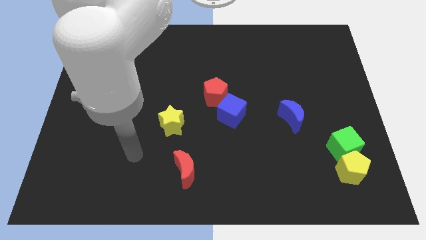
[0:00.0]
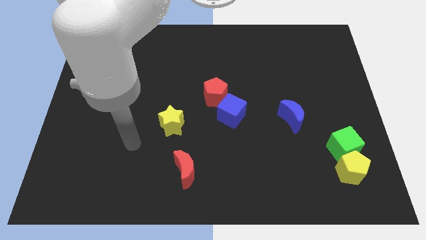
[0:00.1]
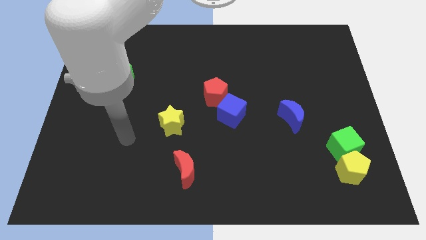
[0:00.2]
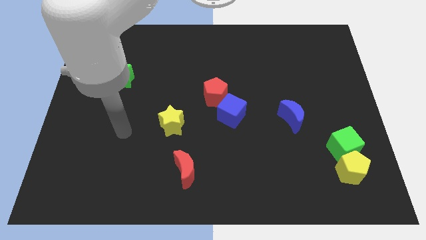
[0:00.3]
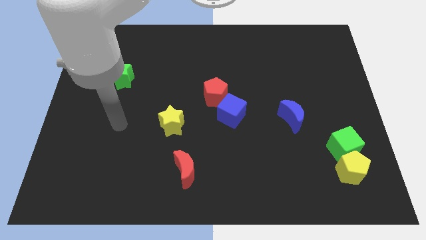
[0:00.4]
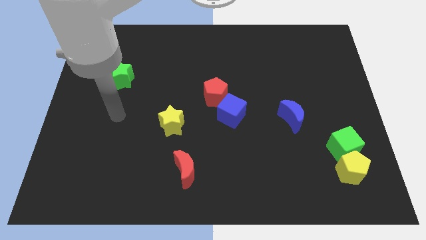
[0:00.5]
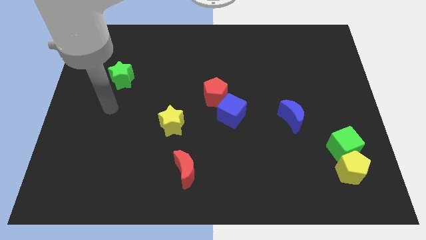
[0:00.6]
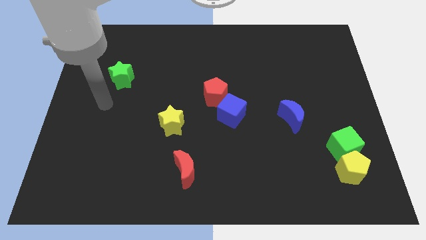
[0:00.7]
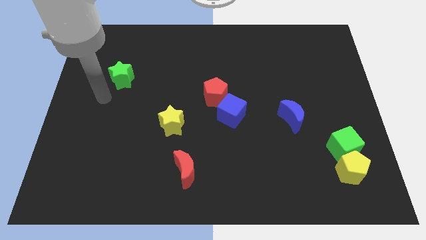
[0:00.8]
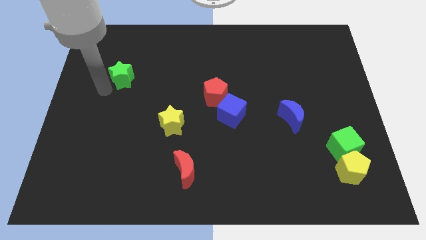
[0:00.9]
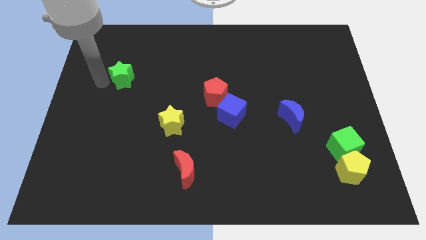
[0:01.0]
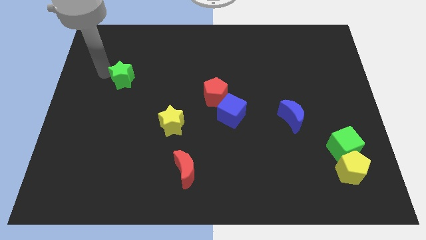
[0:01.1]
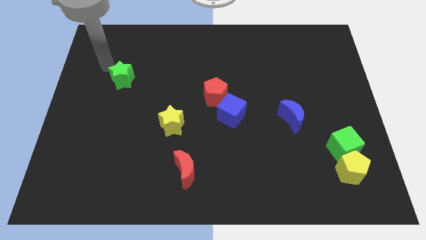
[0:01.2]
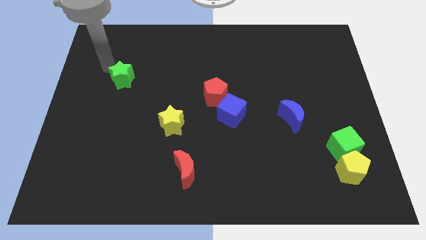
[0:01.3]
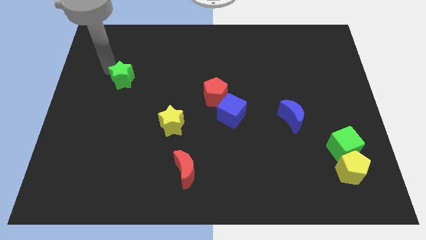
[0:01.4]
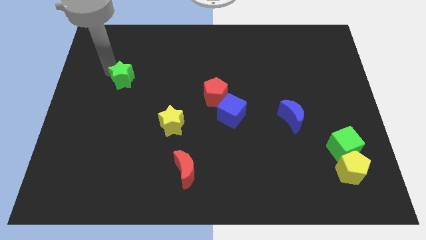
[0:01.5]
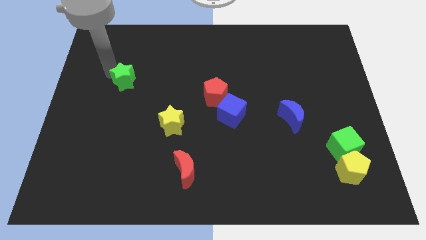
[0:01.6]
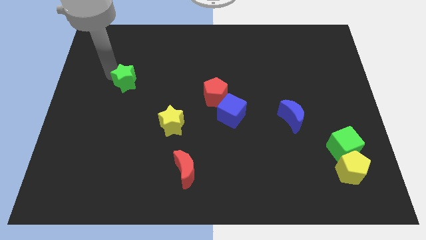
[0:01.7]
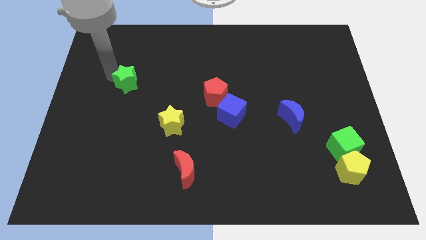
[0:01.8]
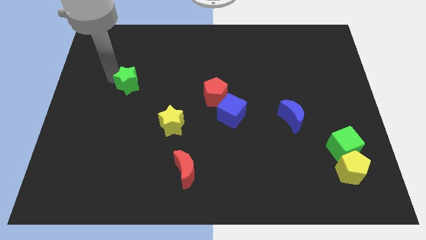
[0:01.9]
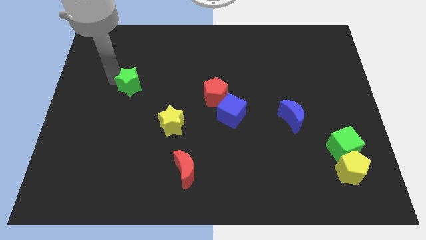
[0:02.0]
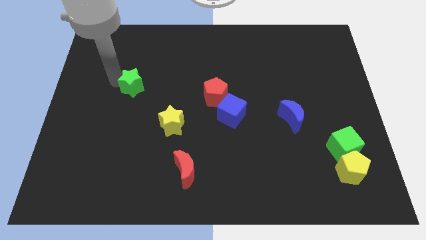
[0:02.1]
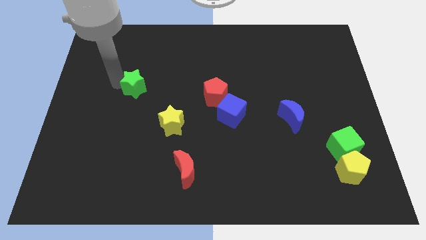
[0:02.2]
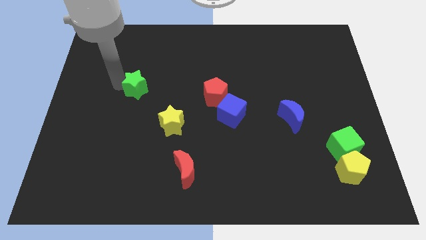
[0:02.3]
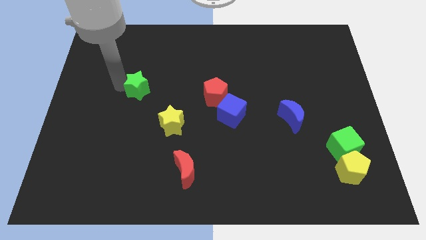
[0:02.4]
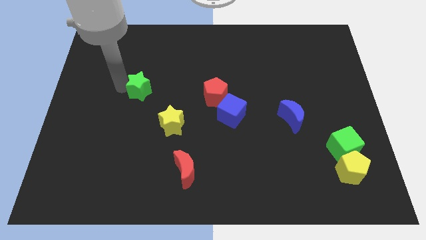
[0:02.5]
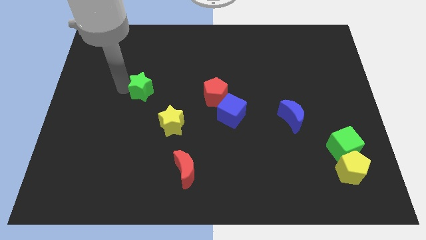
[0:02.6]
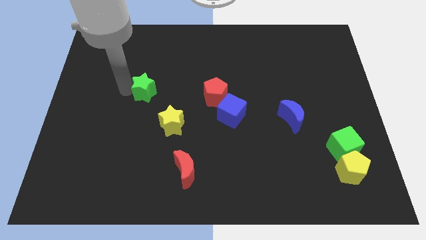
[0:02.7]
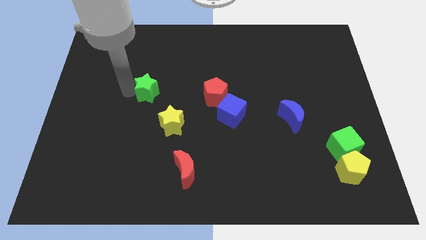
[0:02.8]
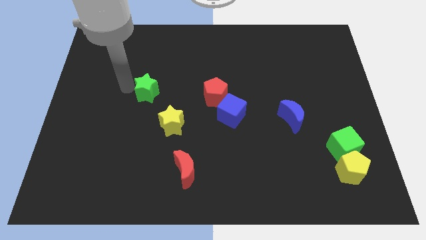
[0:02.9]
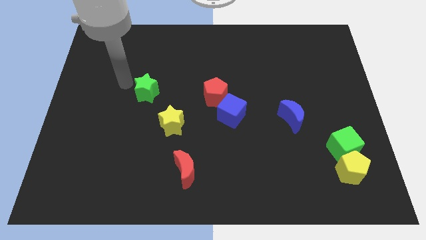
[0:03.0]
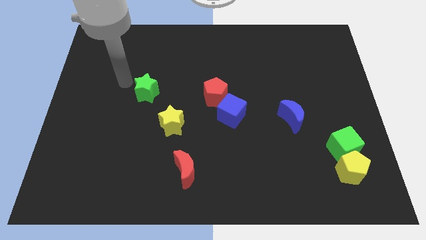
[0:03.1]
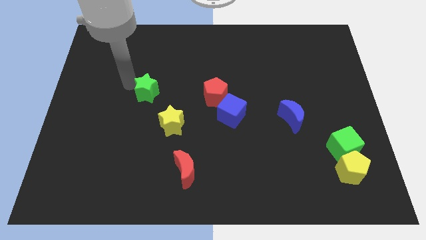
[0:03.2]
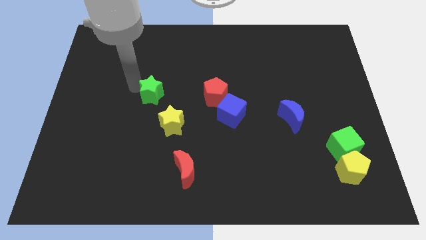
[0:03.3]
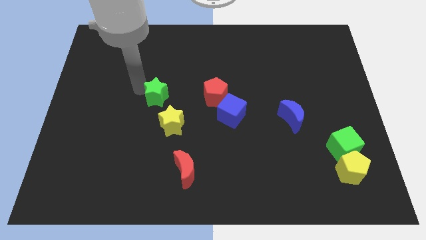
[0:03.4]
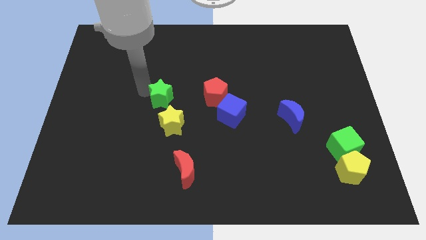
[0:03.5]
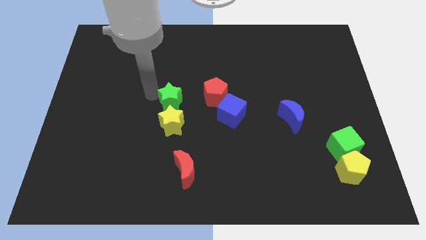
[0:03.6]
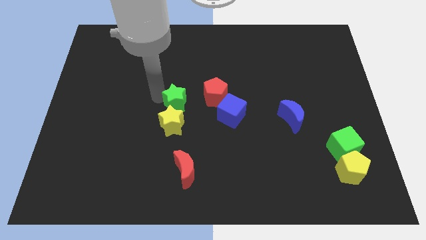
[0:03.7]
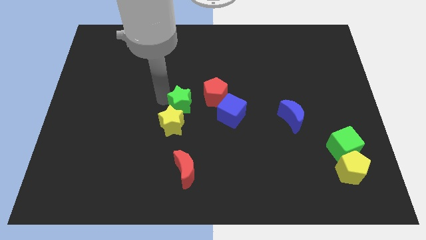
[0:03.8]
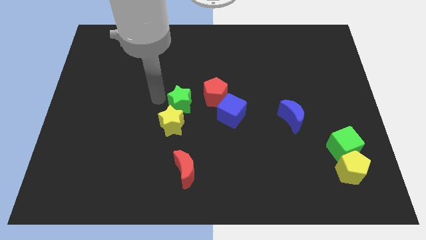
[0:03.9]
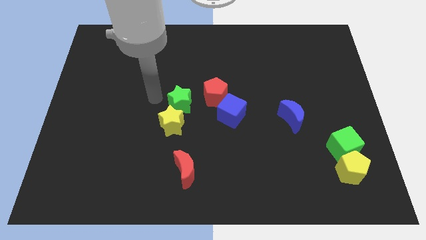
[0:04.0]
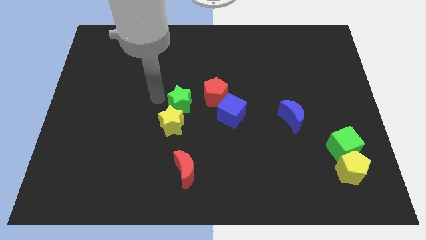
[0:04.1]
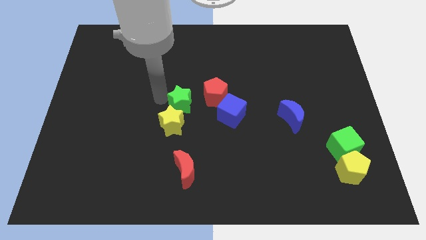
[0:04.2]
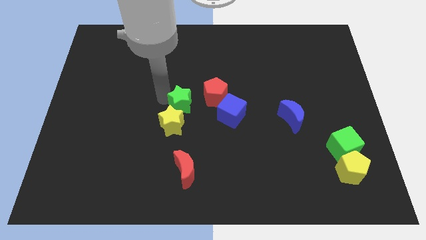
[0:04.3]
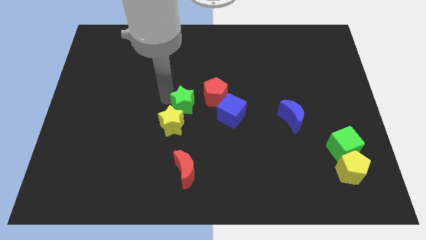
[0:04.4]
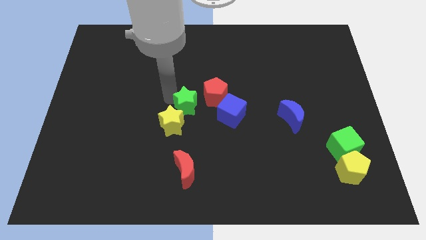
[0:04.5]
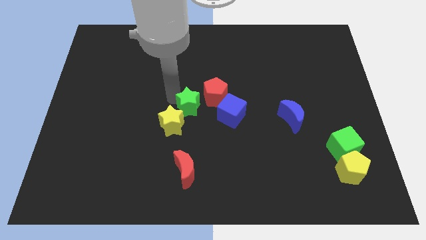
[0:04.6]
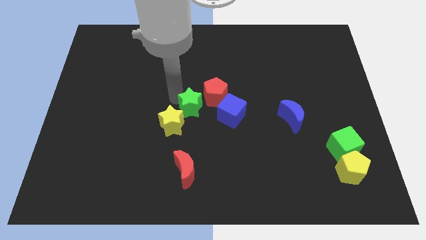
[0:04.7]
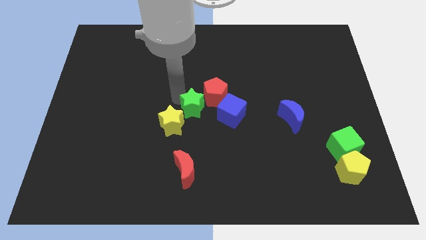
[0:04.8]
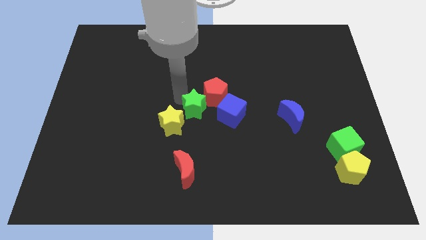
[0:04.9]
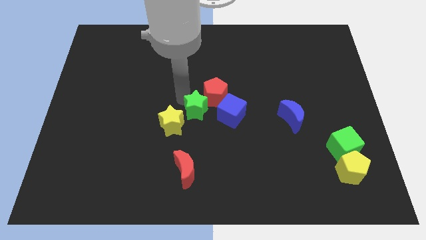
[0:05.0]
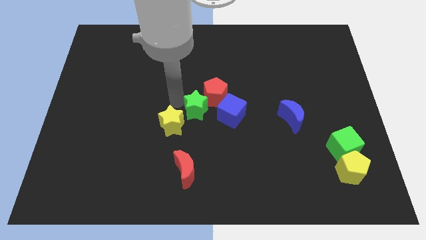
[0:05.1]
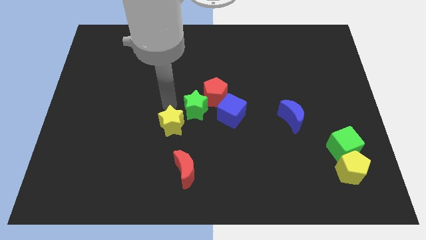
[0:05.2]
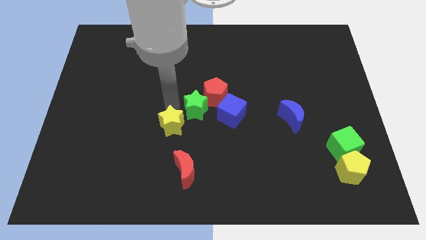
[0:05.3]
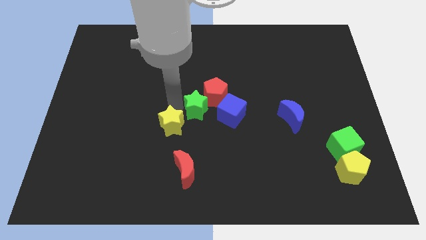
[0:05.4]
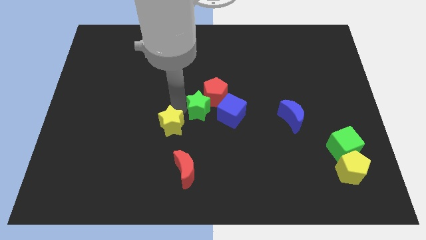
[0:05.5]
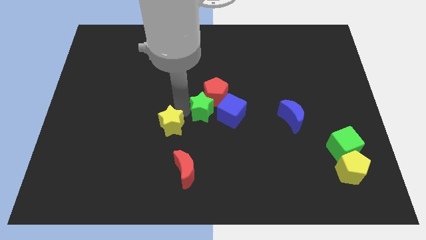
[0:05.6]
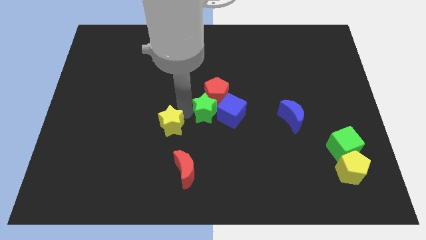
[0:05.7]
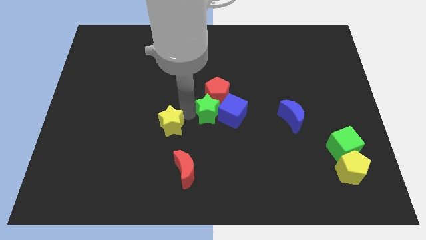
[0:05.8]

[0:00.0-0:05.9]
put the green star towards the blue cube

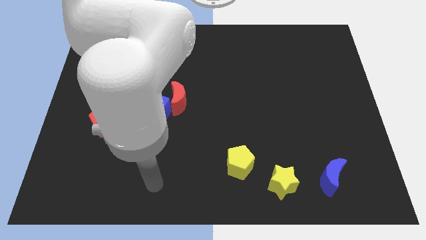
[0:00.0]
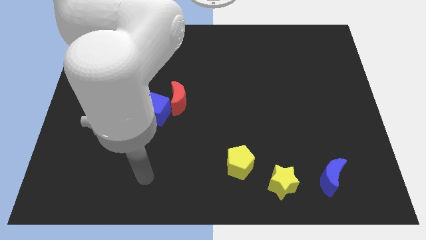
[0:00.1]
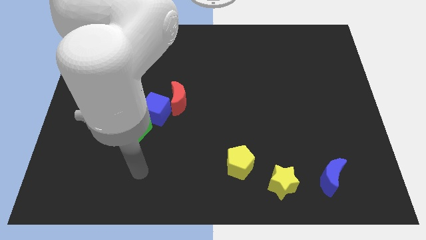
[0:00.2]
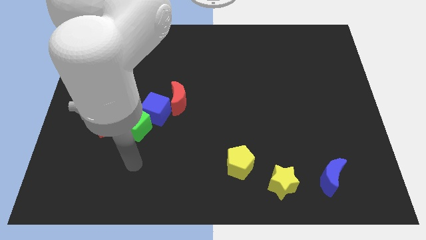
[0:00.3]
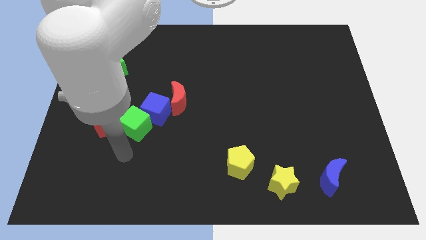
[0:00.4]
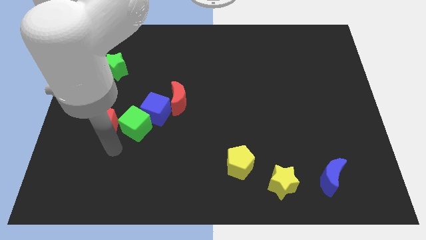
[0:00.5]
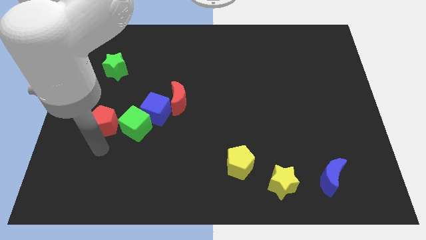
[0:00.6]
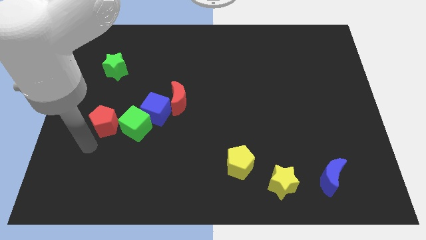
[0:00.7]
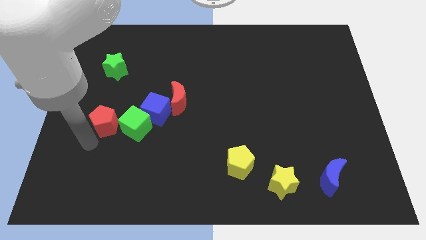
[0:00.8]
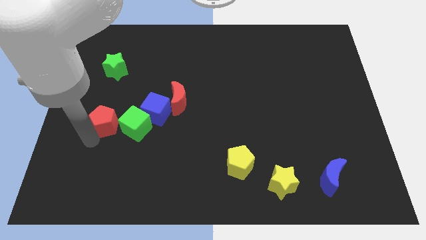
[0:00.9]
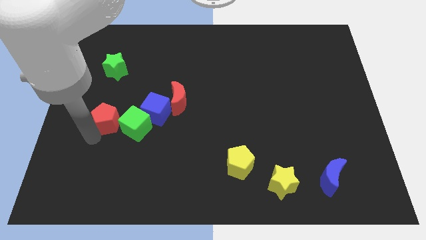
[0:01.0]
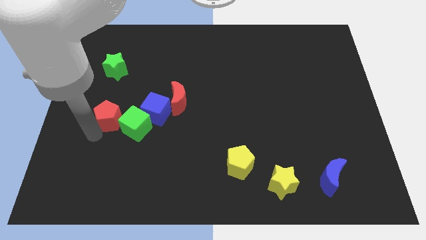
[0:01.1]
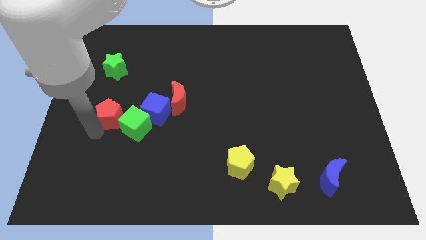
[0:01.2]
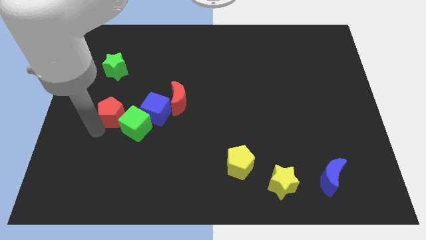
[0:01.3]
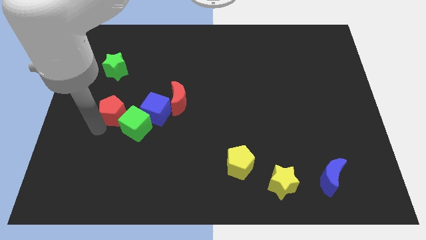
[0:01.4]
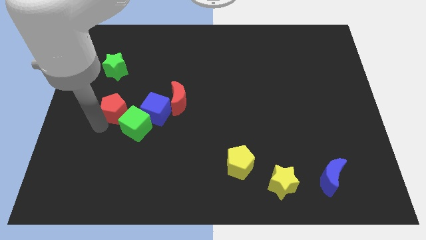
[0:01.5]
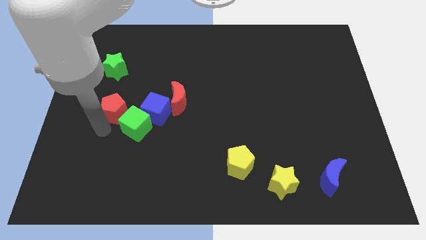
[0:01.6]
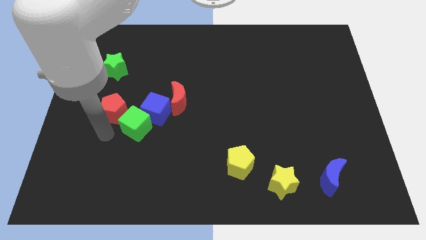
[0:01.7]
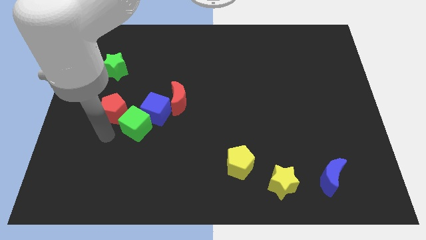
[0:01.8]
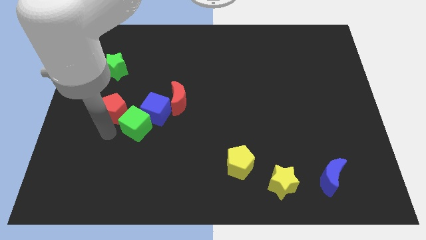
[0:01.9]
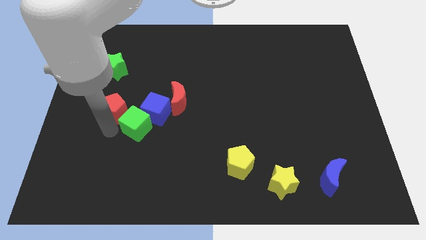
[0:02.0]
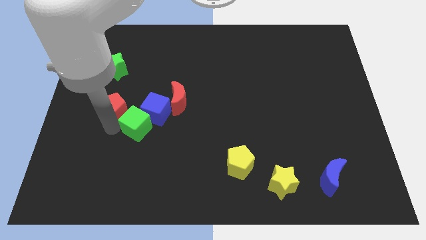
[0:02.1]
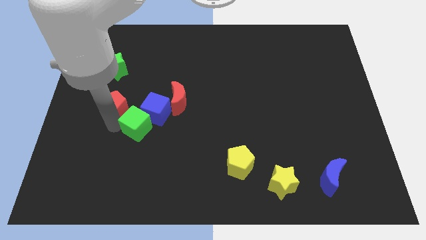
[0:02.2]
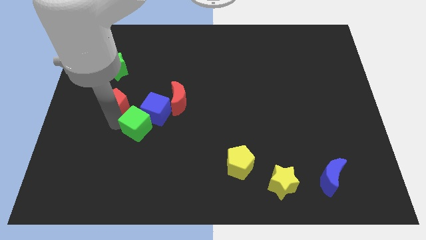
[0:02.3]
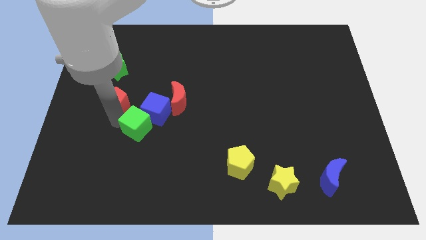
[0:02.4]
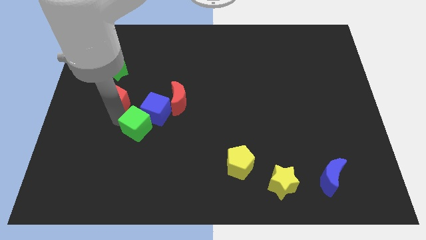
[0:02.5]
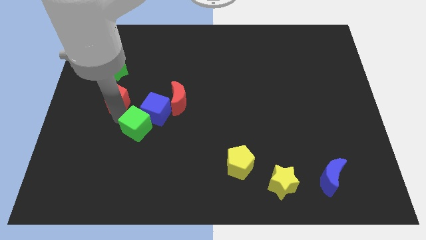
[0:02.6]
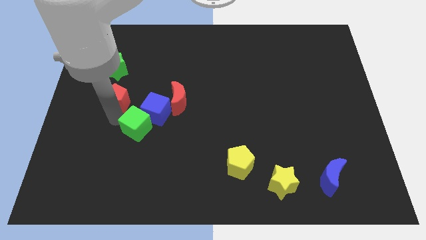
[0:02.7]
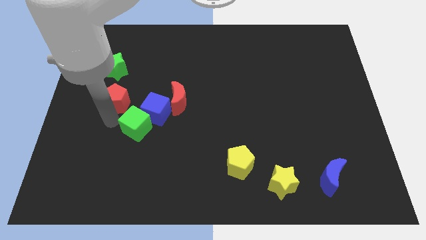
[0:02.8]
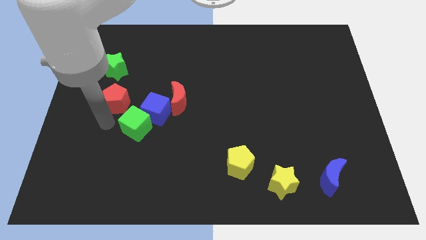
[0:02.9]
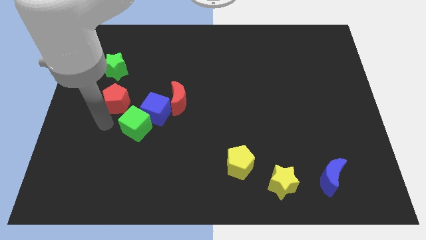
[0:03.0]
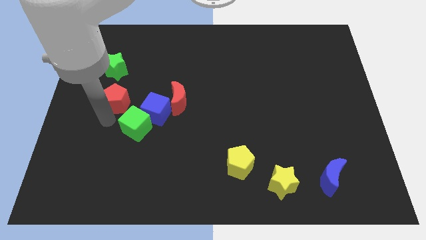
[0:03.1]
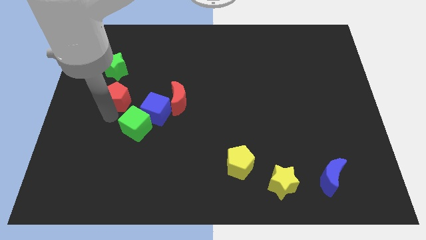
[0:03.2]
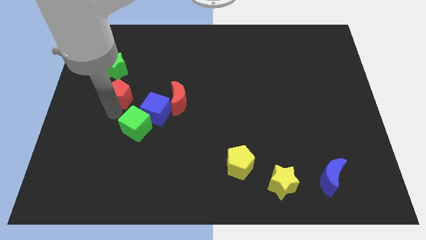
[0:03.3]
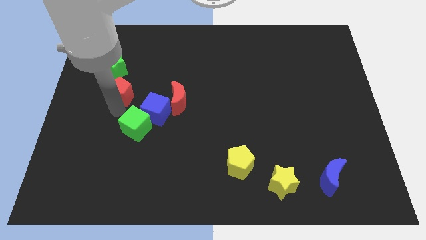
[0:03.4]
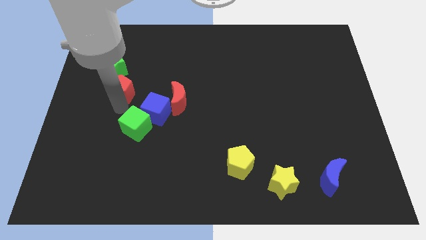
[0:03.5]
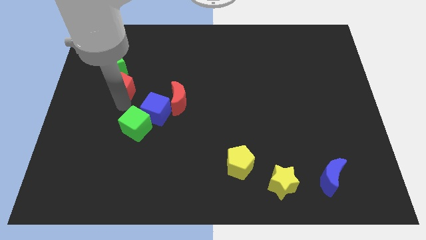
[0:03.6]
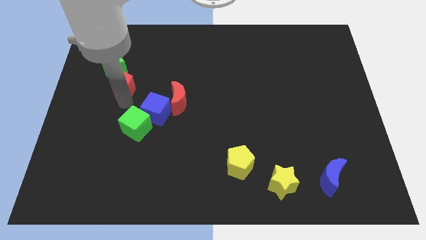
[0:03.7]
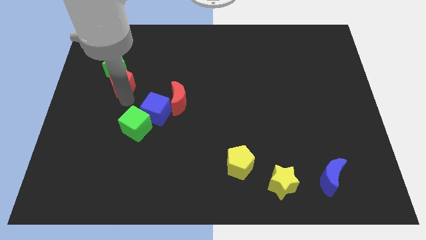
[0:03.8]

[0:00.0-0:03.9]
push the red pentagon next to the green star
